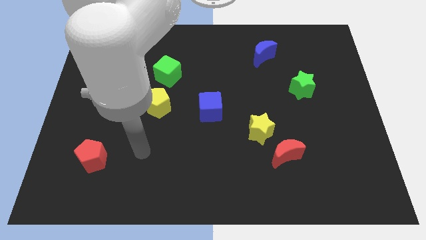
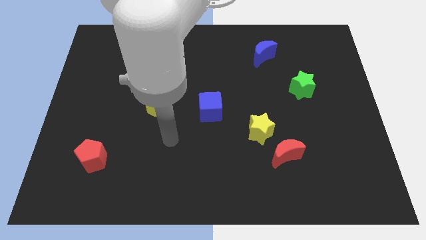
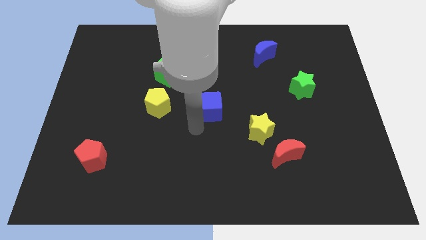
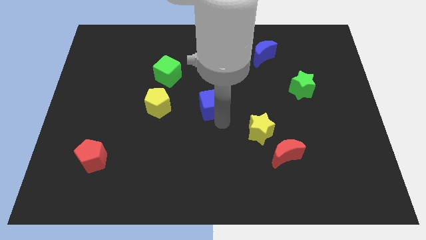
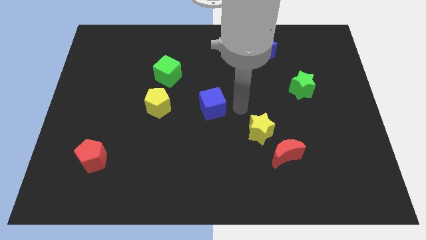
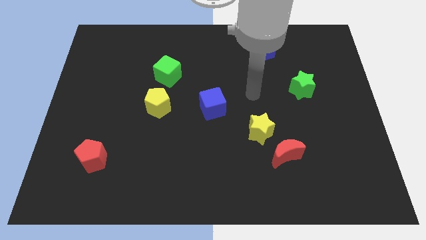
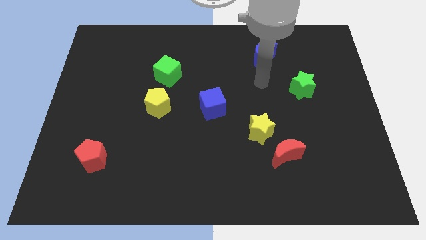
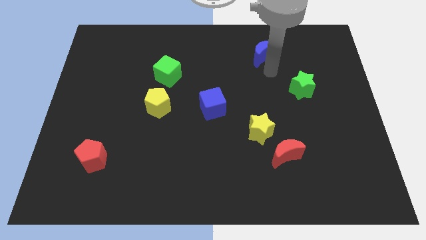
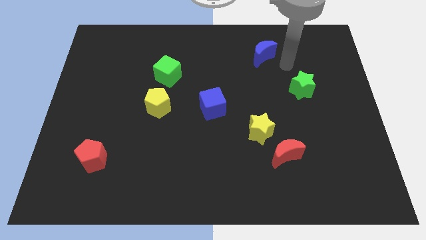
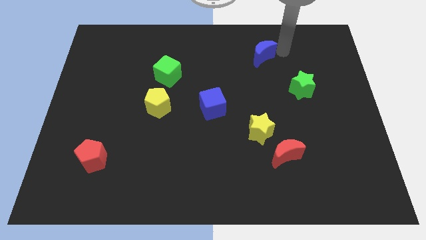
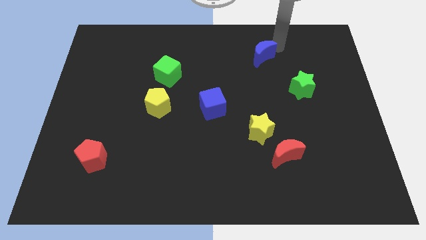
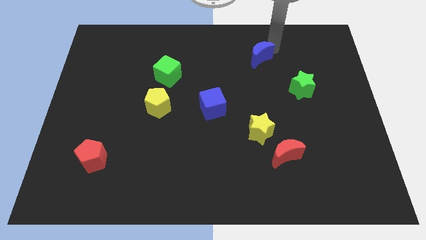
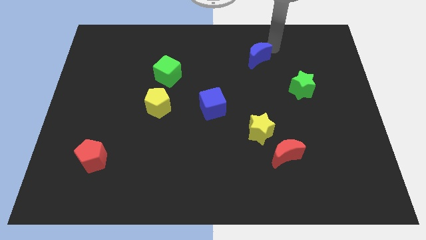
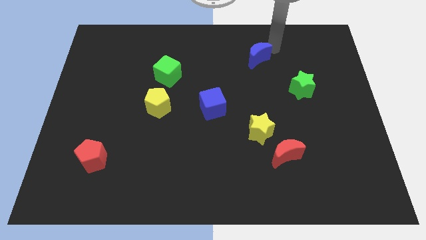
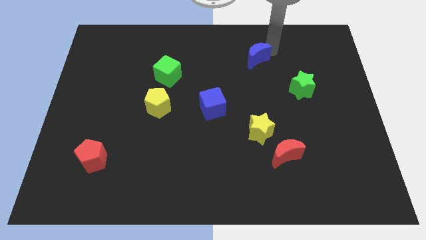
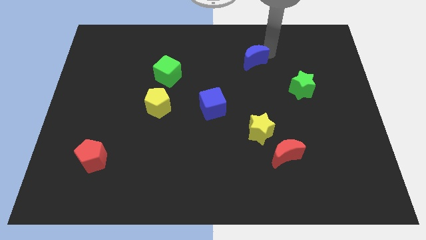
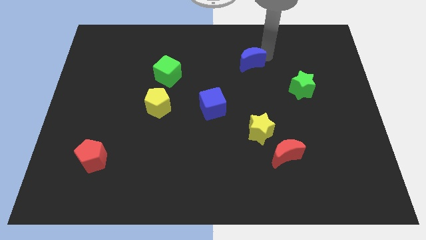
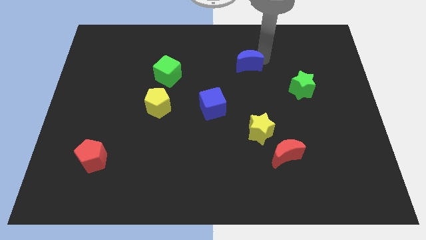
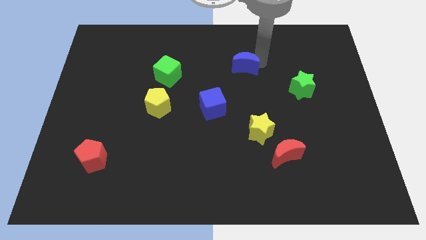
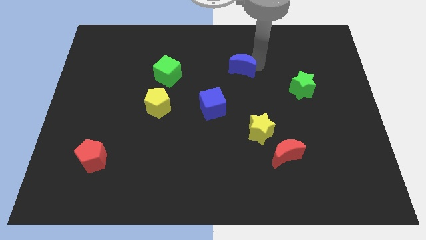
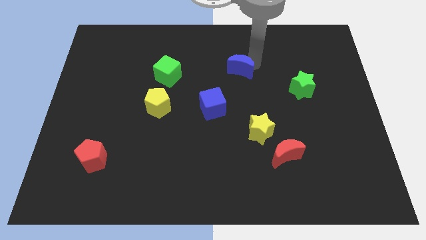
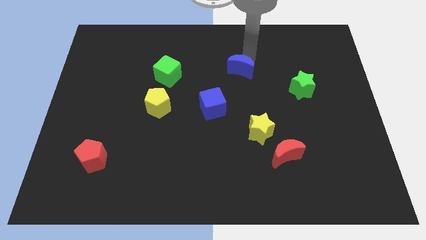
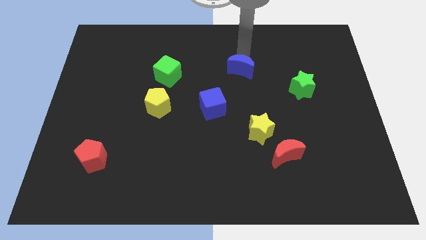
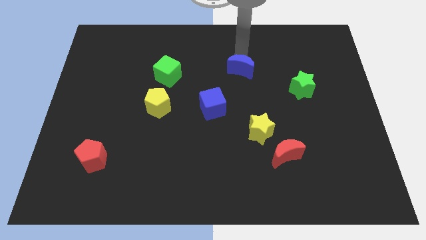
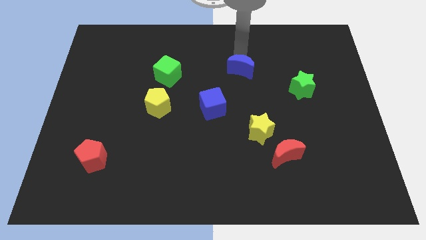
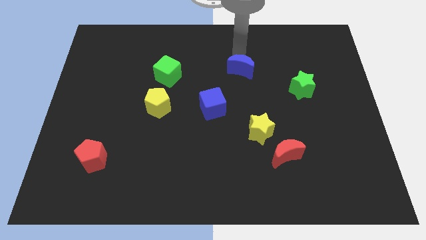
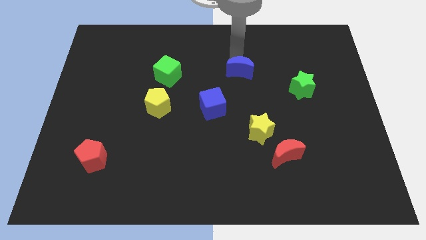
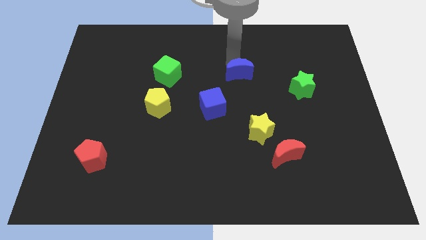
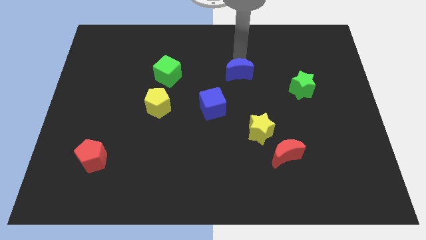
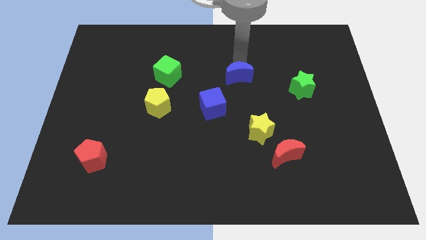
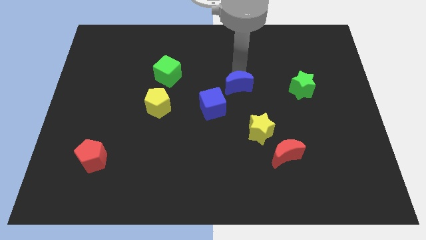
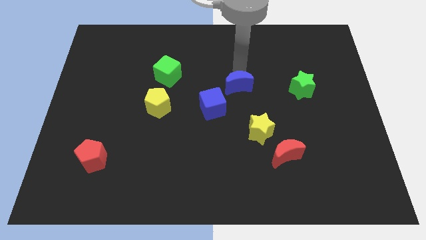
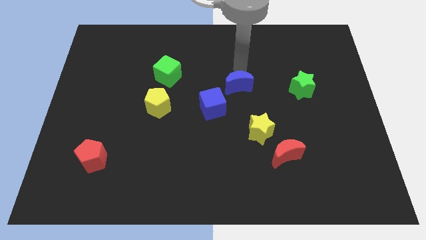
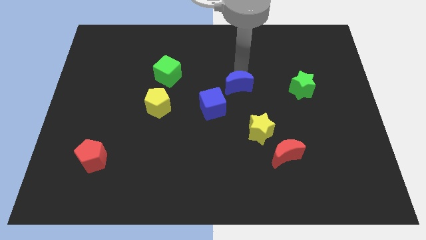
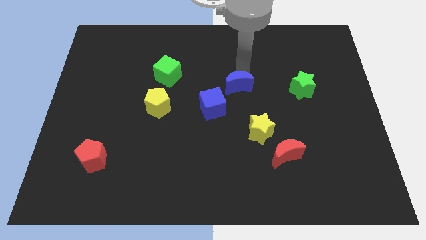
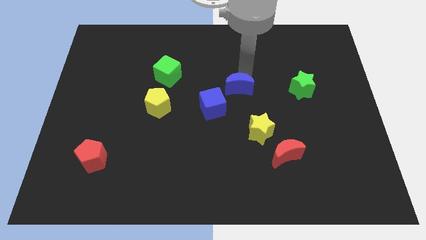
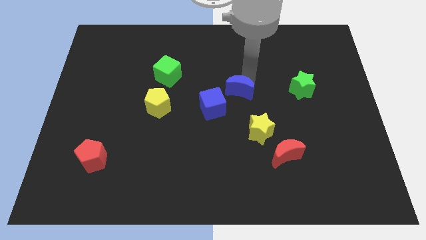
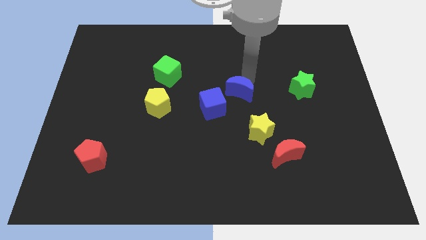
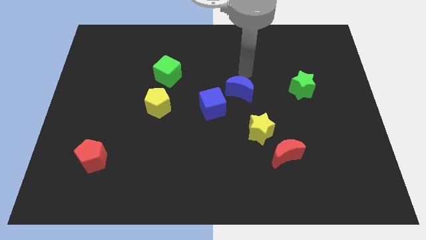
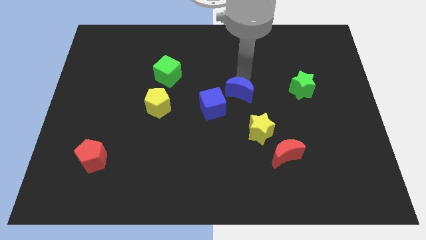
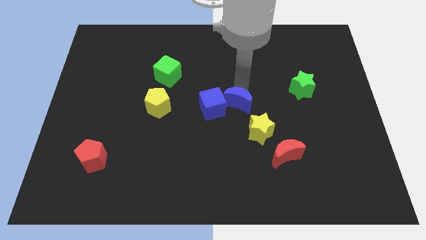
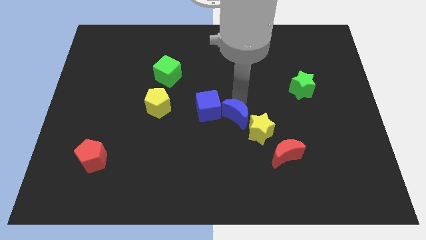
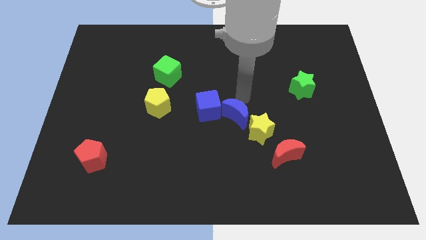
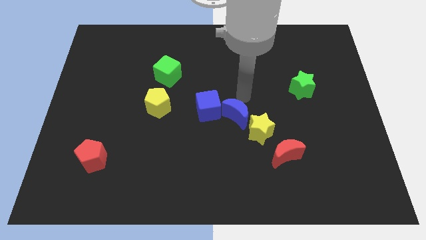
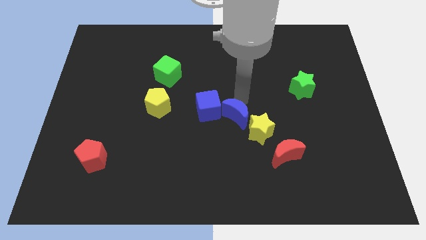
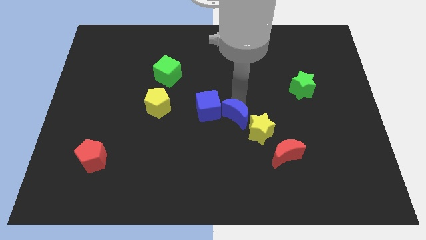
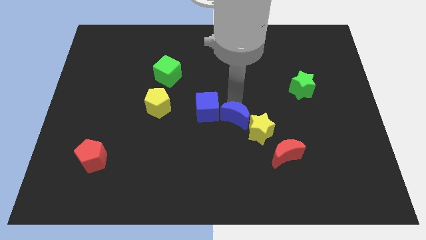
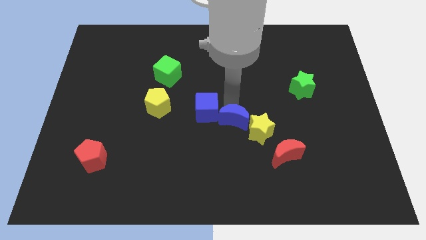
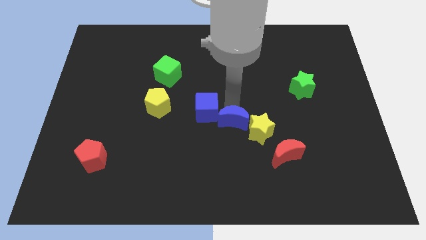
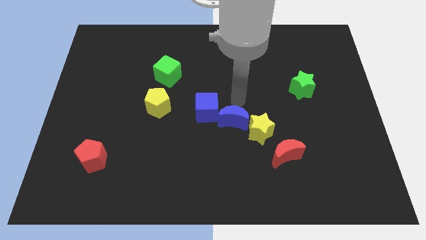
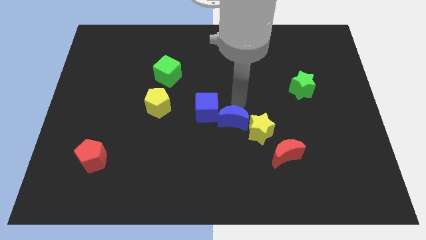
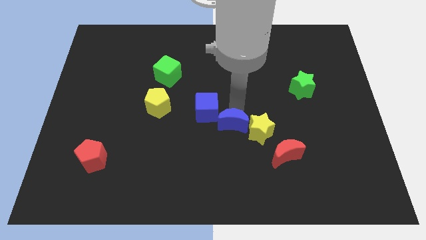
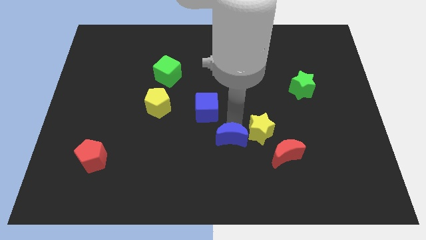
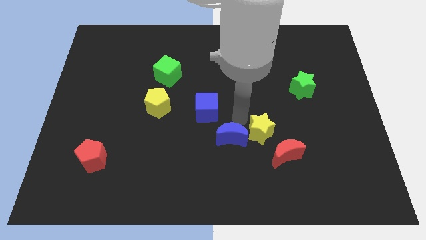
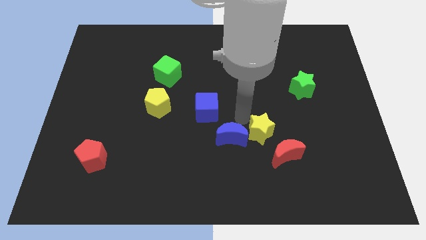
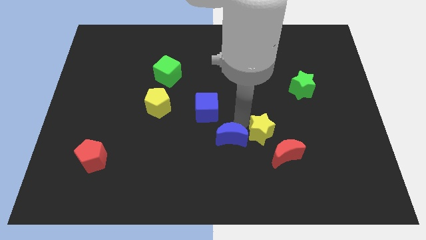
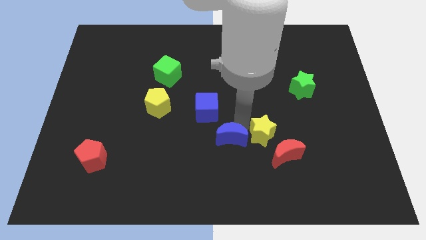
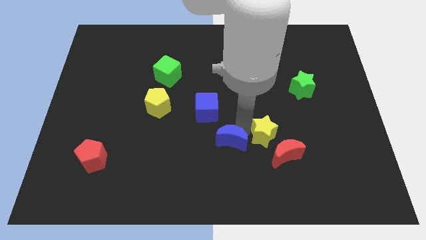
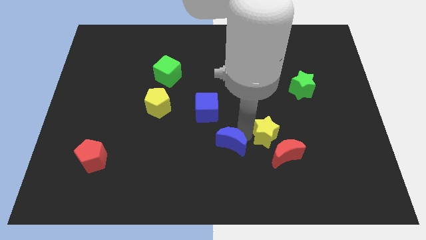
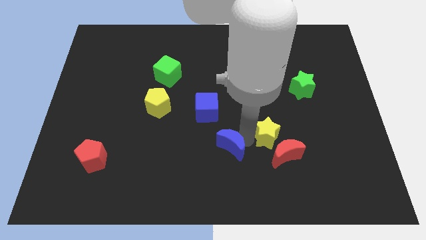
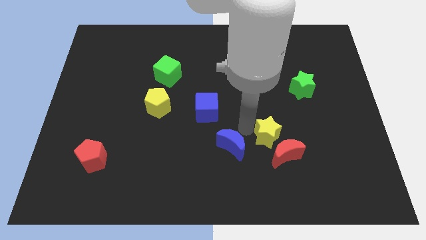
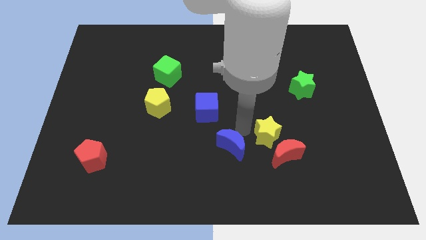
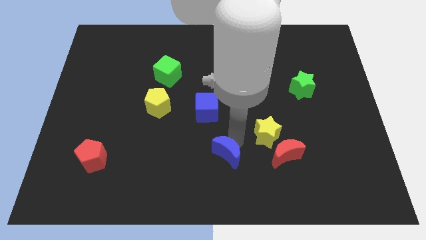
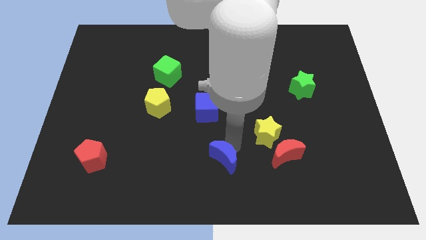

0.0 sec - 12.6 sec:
push the blue moon to the bottom side

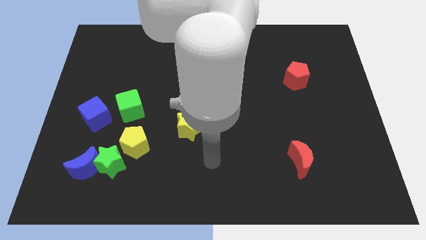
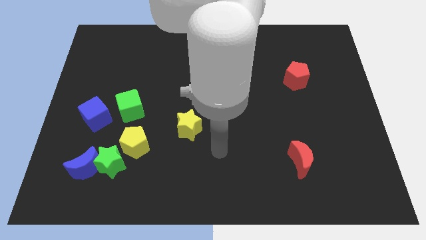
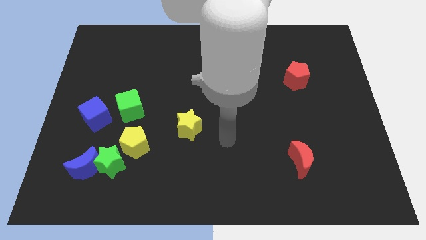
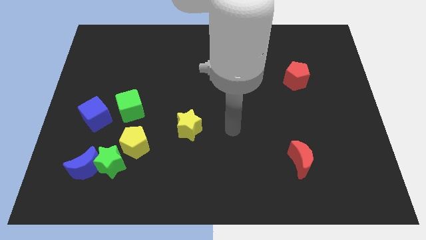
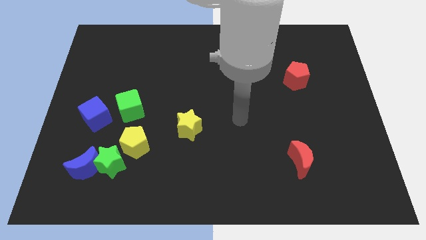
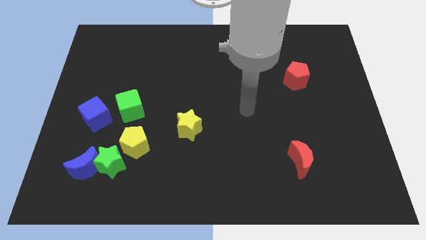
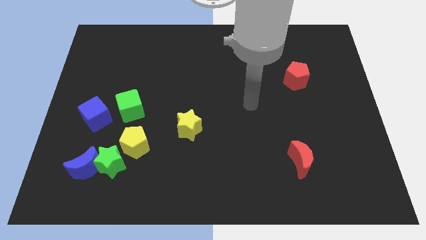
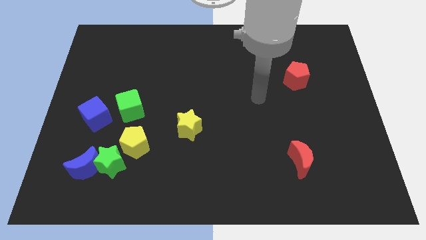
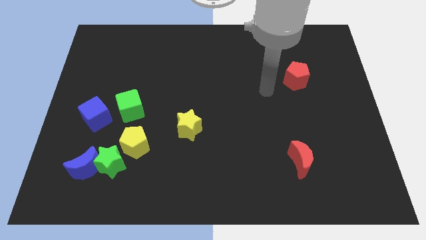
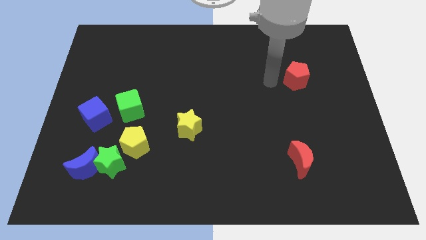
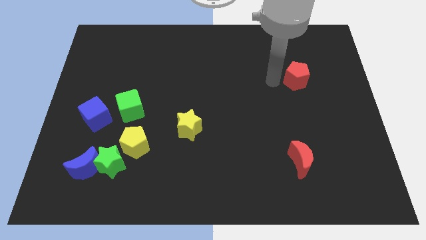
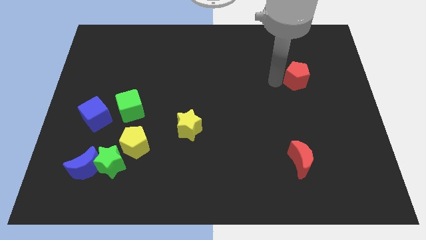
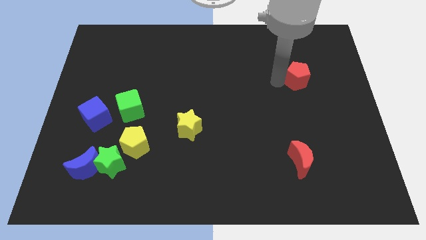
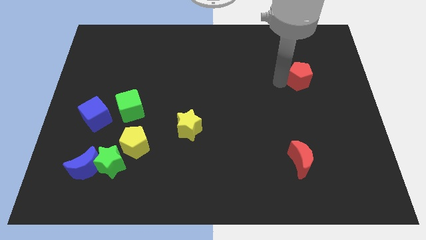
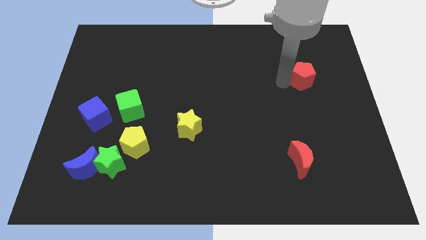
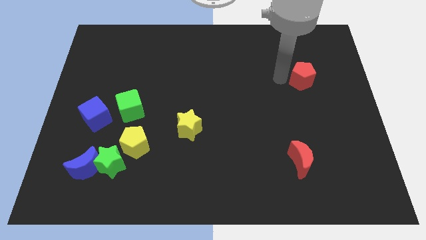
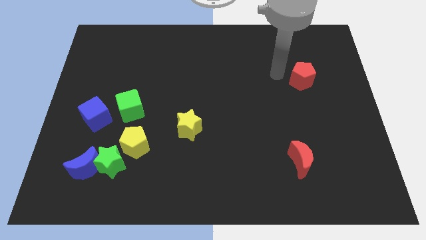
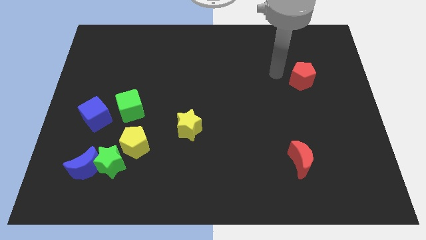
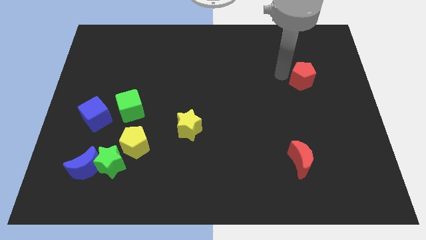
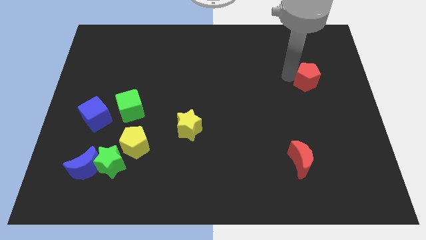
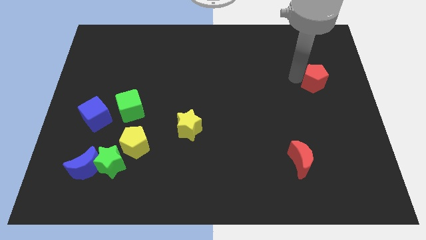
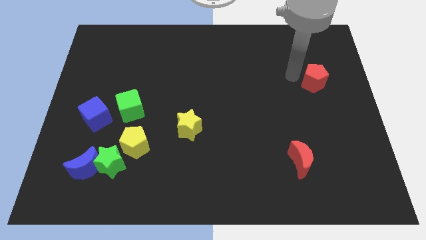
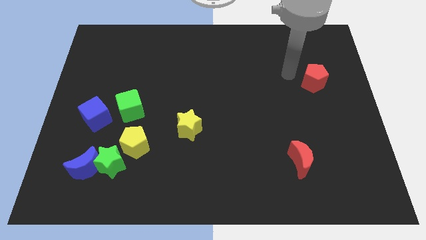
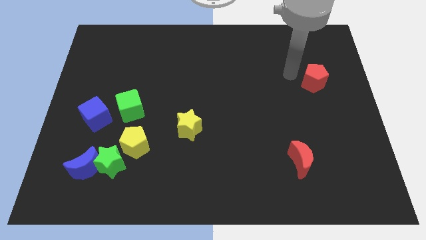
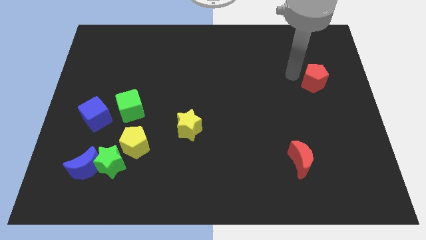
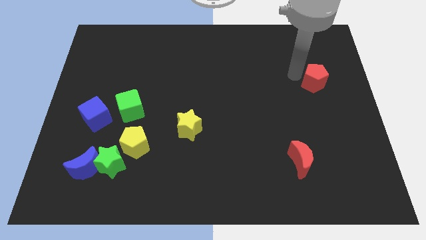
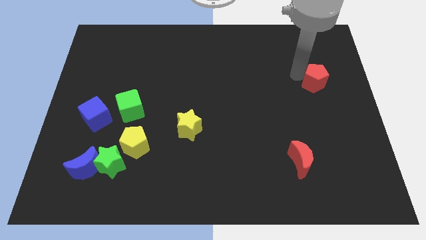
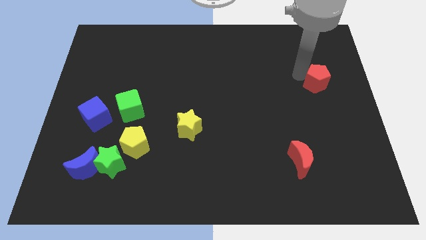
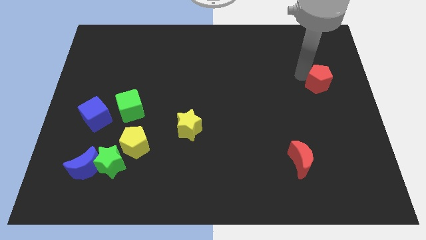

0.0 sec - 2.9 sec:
put the red pentagon to the right side of the board
